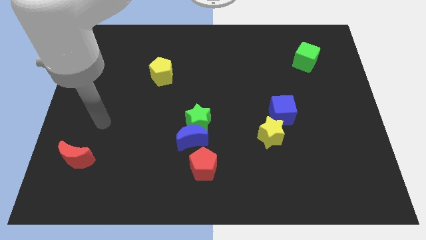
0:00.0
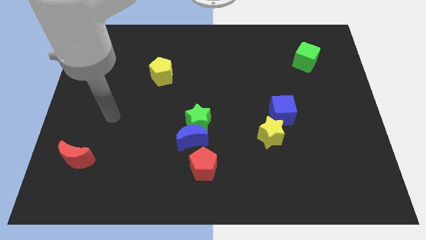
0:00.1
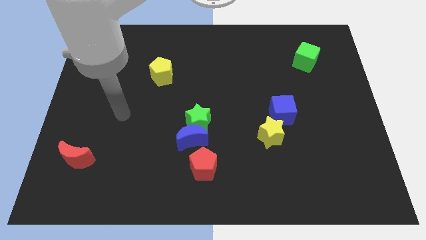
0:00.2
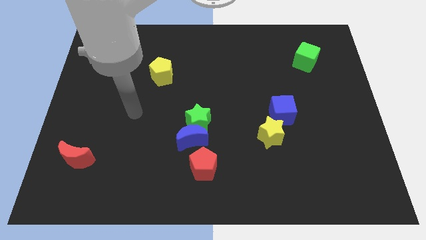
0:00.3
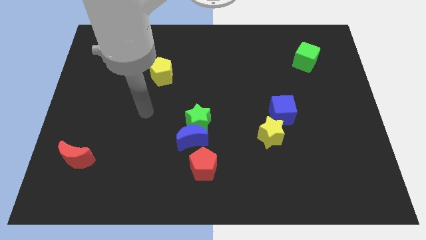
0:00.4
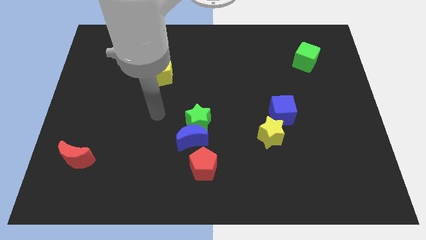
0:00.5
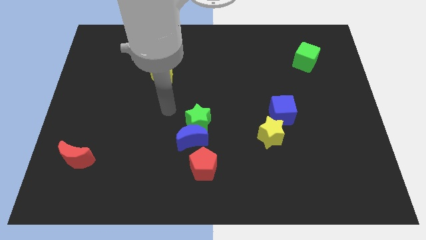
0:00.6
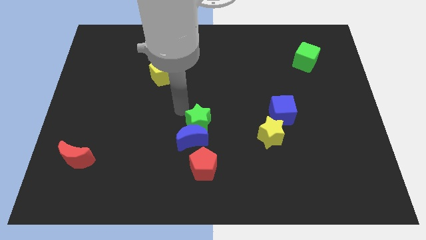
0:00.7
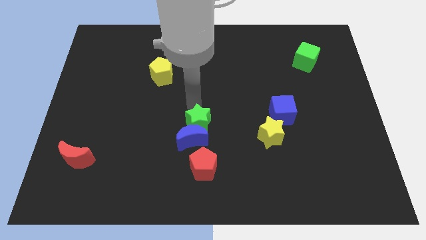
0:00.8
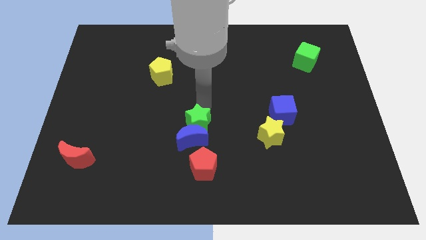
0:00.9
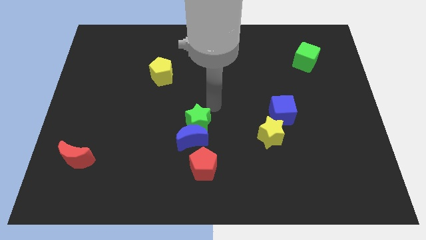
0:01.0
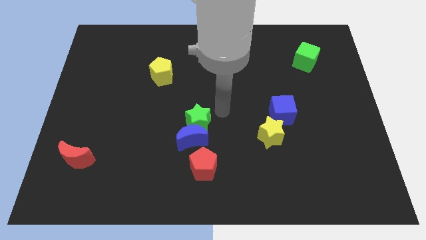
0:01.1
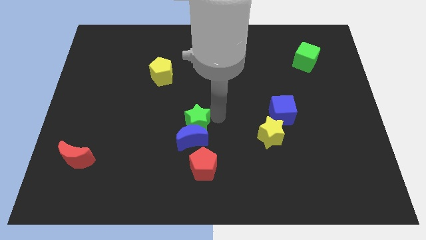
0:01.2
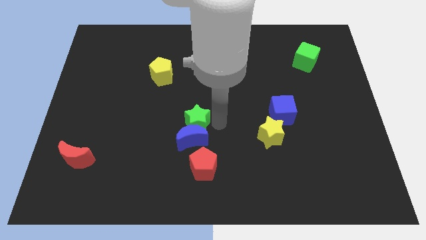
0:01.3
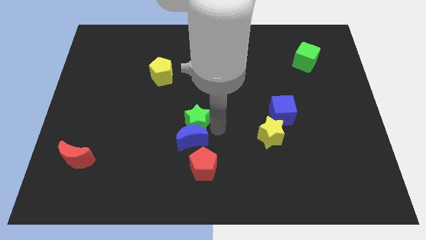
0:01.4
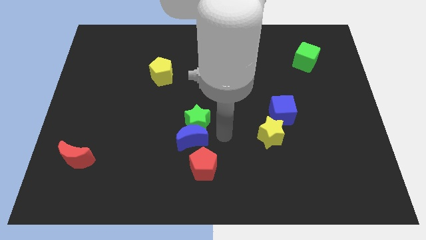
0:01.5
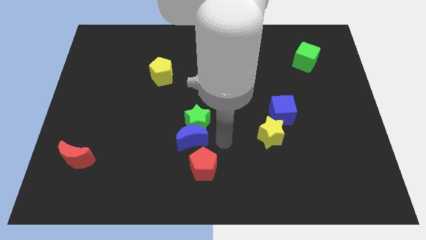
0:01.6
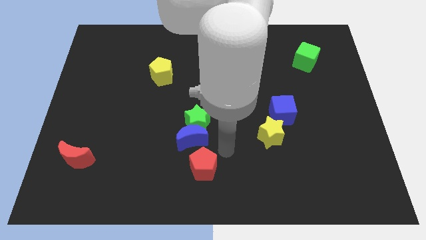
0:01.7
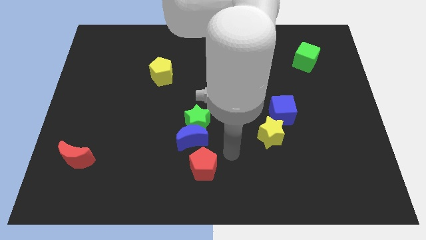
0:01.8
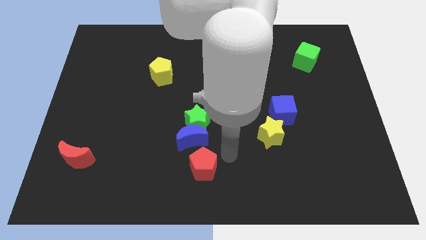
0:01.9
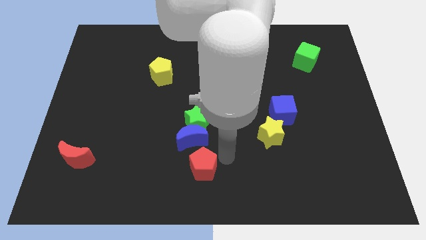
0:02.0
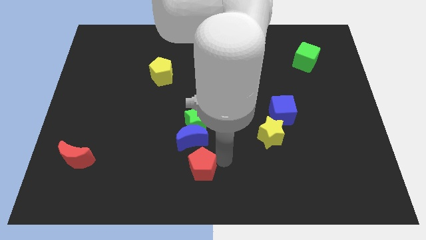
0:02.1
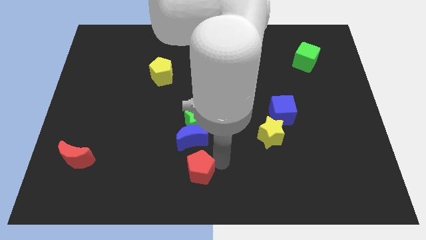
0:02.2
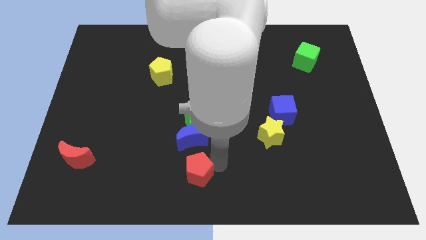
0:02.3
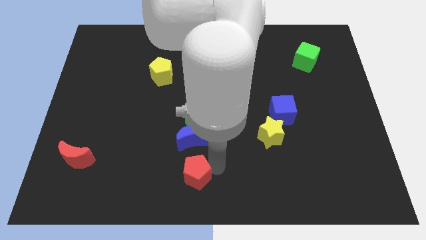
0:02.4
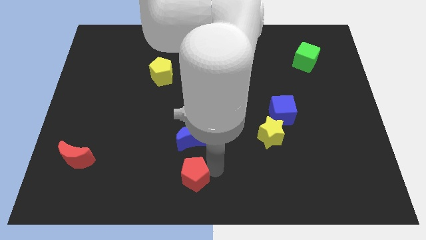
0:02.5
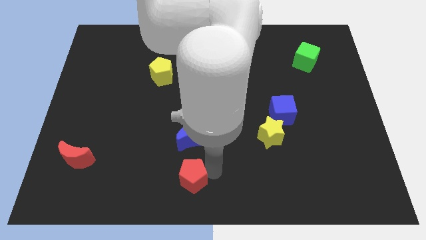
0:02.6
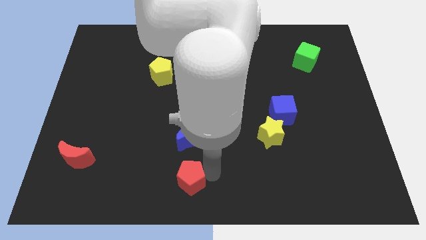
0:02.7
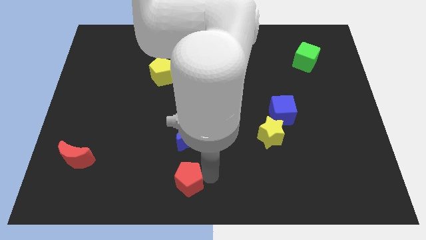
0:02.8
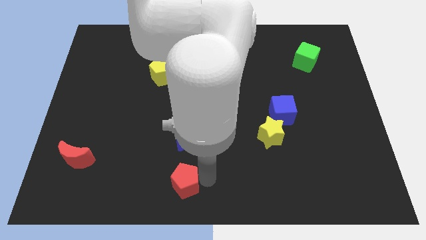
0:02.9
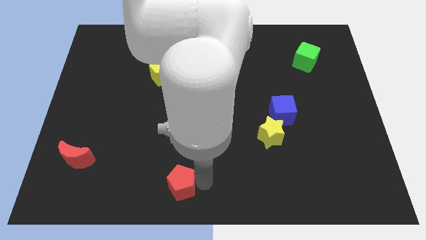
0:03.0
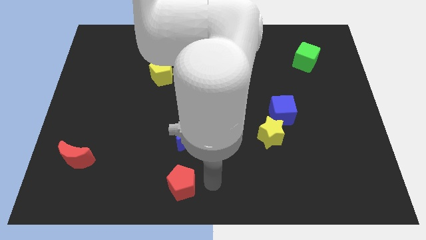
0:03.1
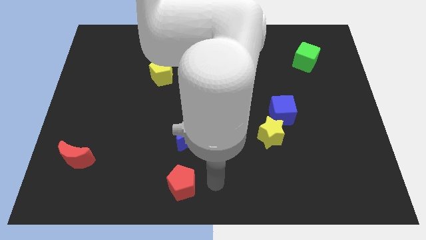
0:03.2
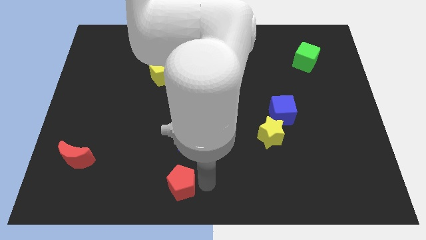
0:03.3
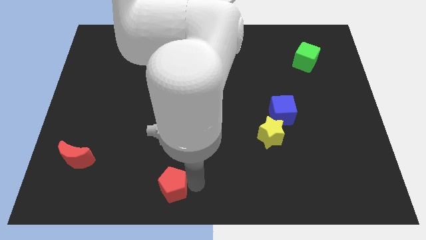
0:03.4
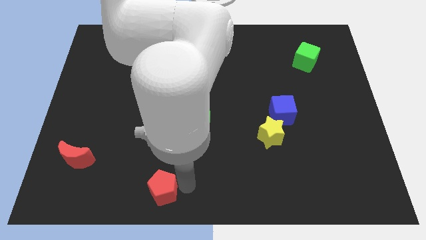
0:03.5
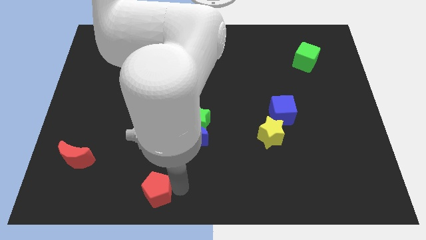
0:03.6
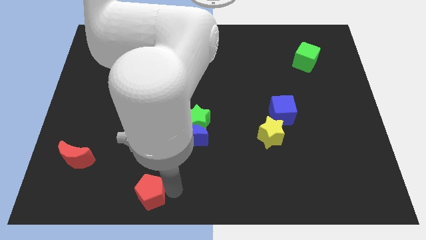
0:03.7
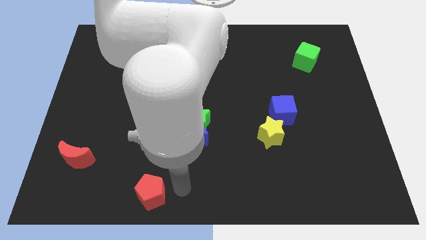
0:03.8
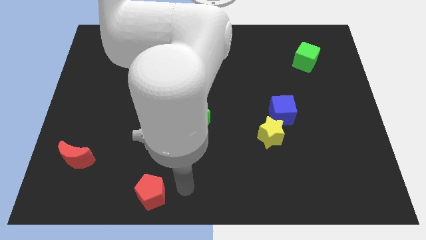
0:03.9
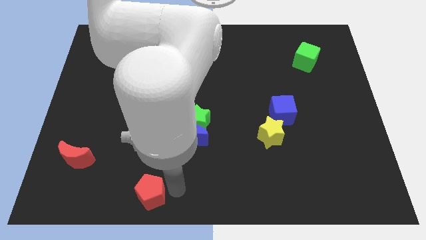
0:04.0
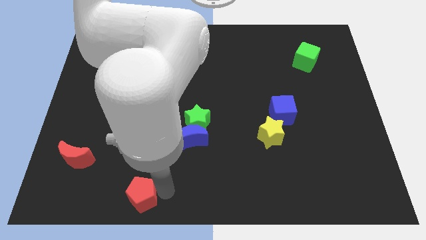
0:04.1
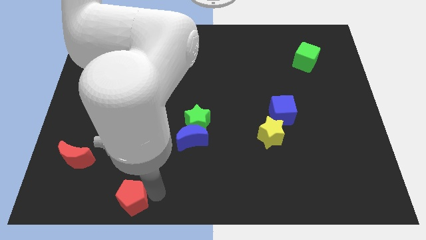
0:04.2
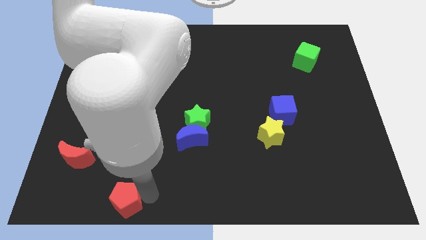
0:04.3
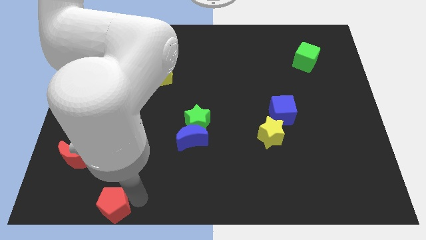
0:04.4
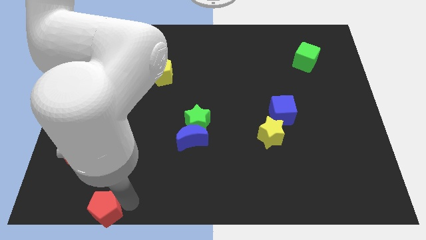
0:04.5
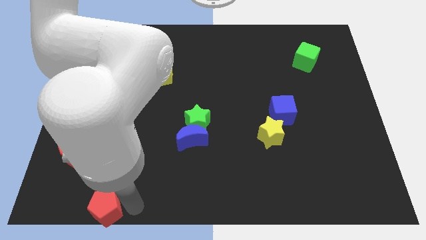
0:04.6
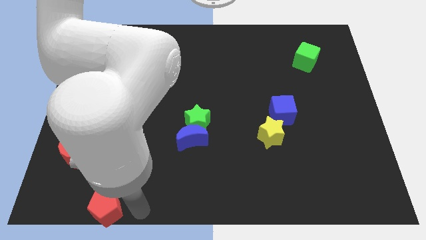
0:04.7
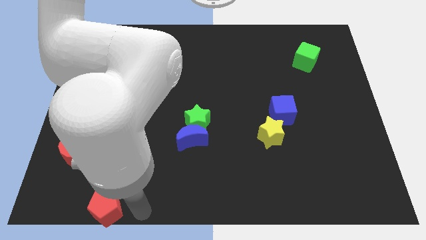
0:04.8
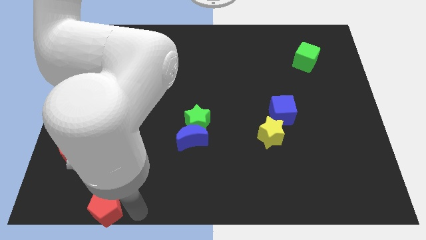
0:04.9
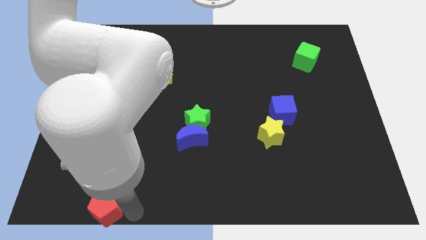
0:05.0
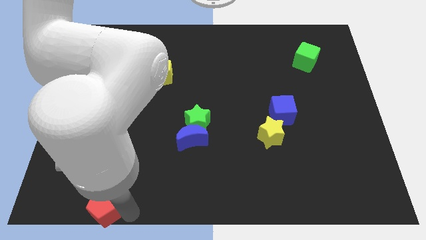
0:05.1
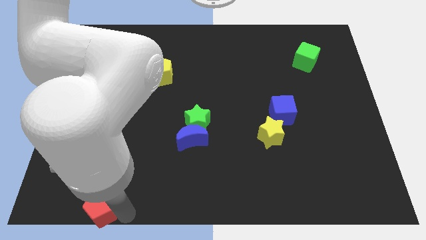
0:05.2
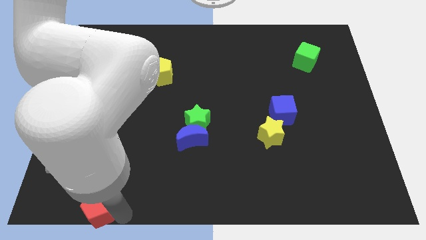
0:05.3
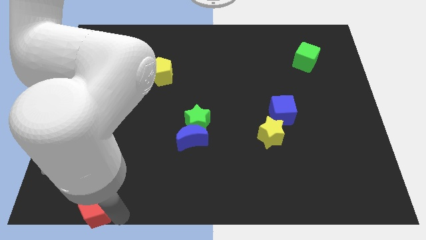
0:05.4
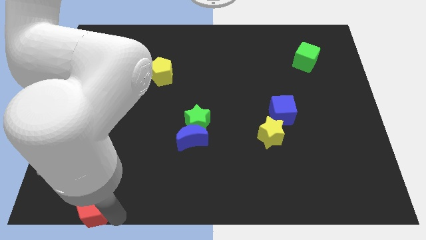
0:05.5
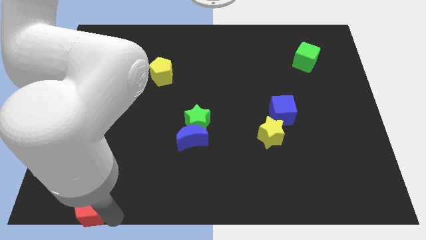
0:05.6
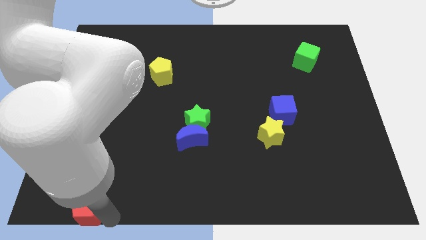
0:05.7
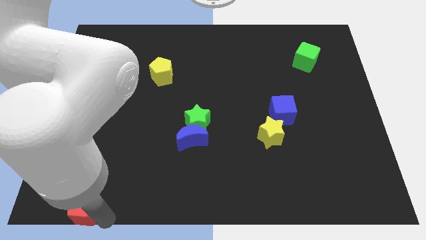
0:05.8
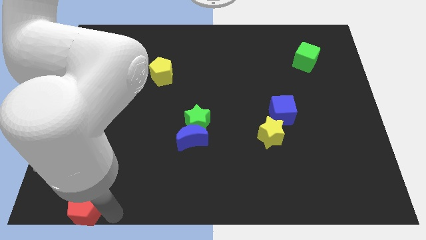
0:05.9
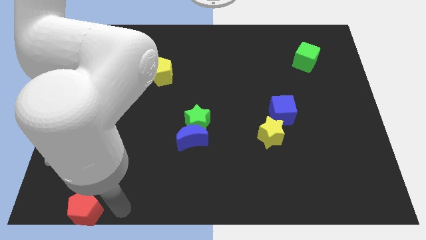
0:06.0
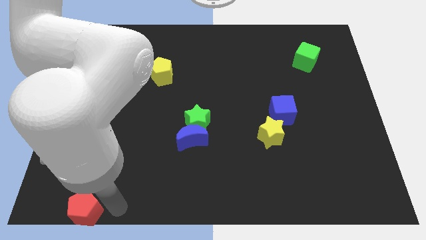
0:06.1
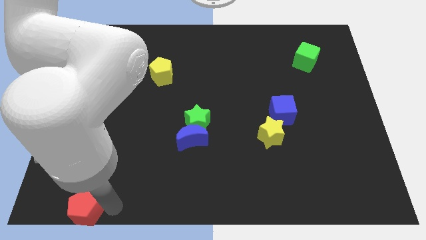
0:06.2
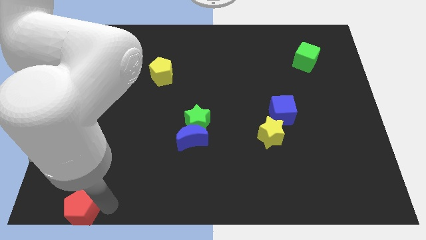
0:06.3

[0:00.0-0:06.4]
push the red pentagon to the bottom left corner
